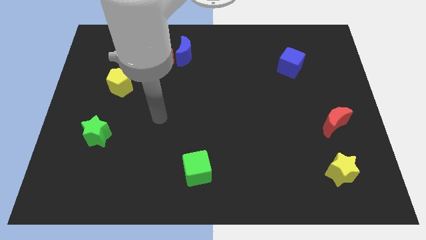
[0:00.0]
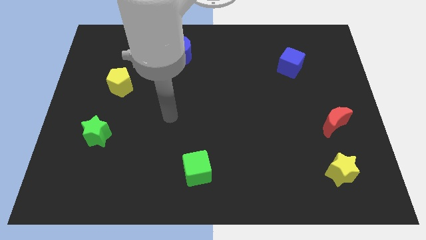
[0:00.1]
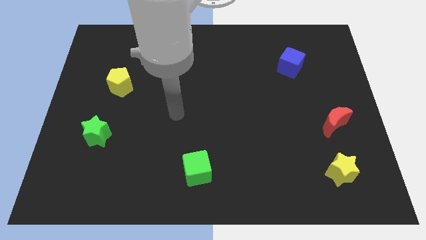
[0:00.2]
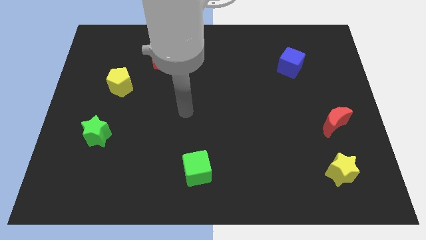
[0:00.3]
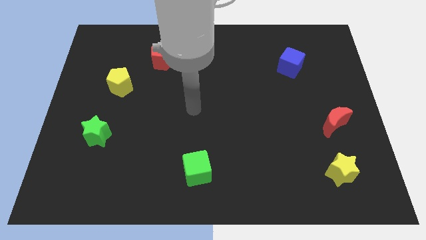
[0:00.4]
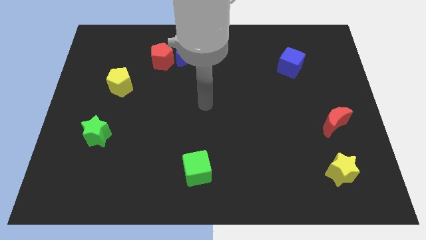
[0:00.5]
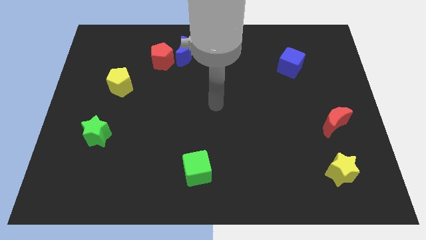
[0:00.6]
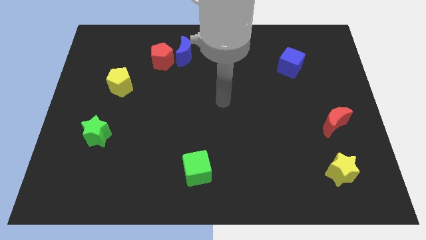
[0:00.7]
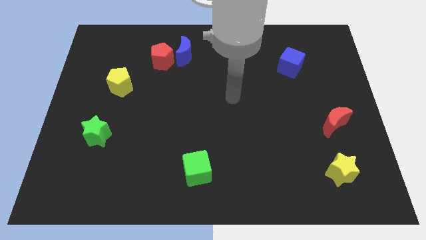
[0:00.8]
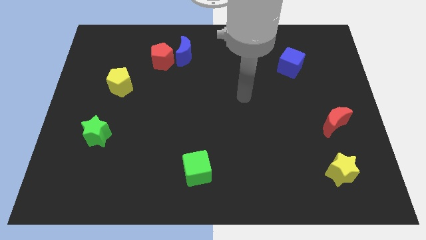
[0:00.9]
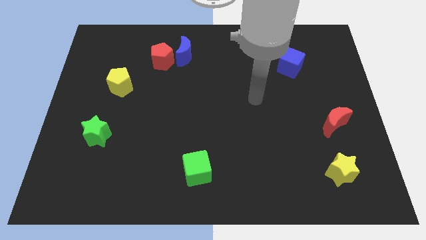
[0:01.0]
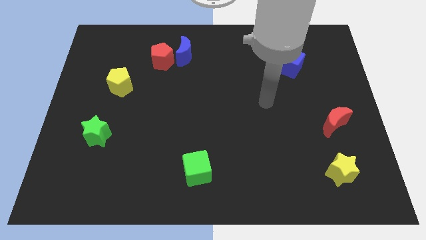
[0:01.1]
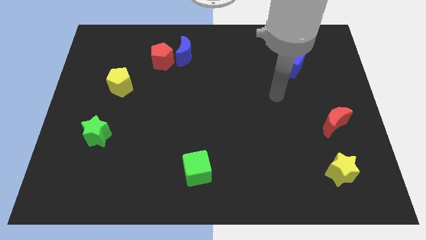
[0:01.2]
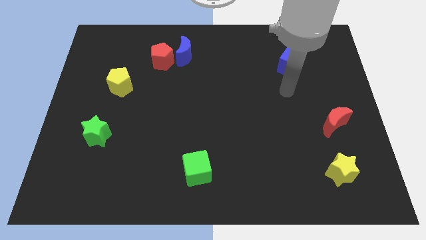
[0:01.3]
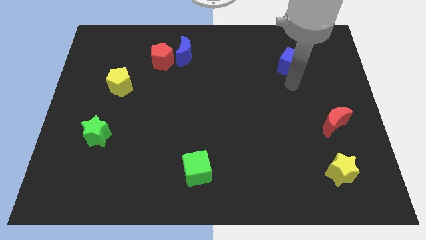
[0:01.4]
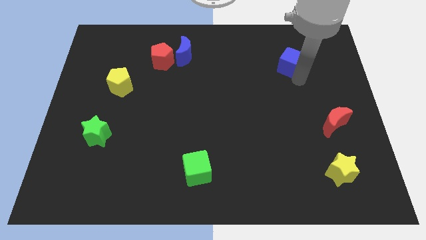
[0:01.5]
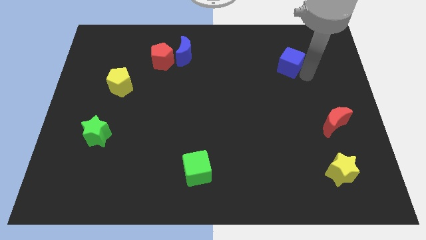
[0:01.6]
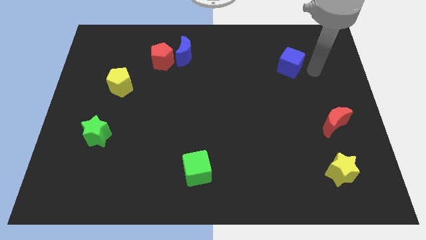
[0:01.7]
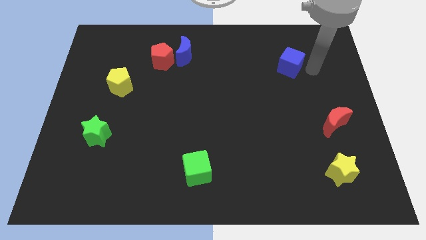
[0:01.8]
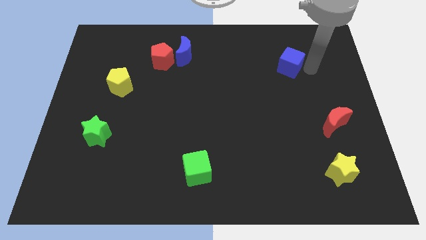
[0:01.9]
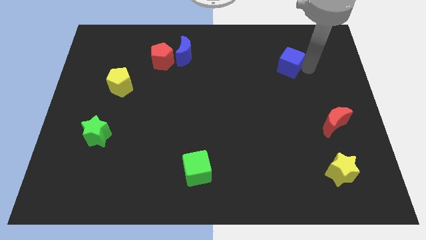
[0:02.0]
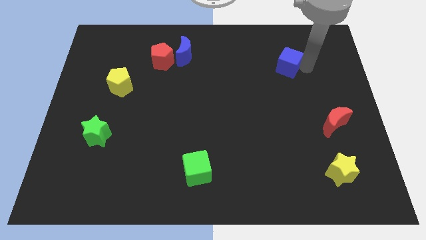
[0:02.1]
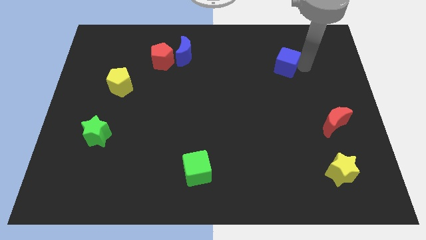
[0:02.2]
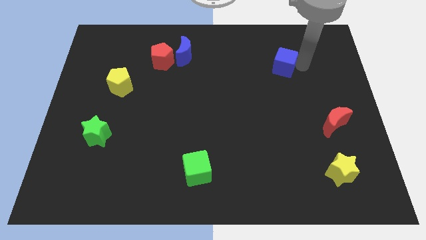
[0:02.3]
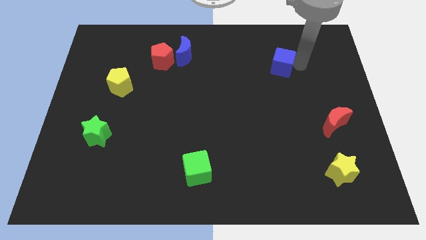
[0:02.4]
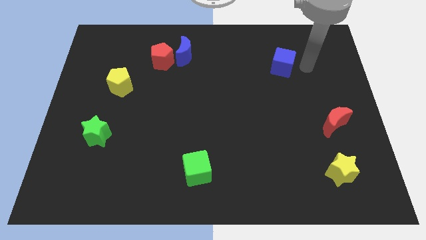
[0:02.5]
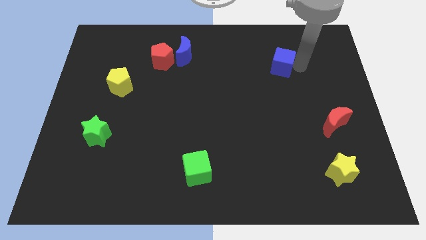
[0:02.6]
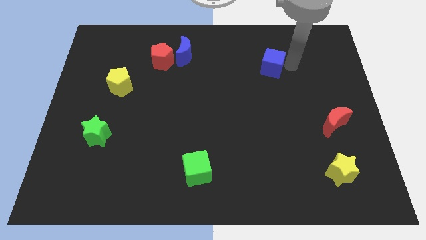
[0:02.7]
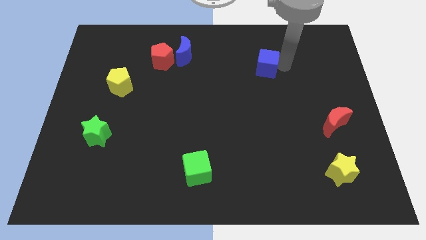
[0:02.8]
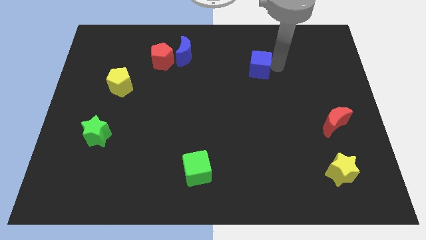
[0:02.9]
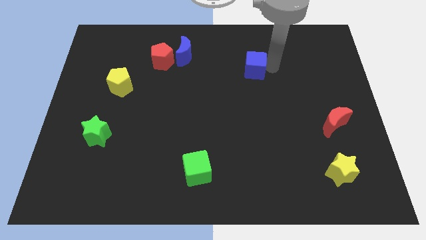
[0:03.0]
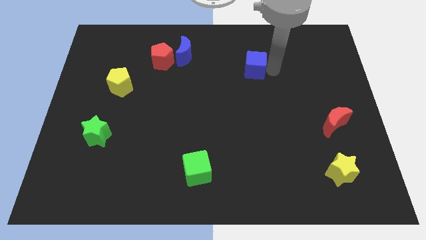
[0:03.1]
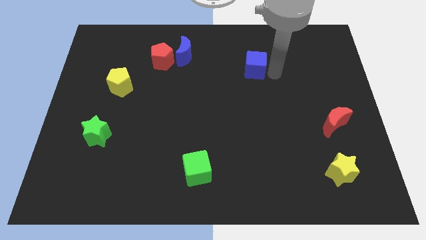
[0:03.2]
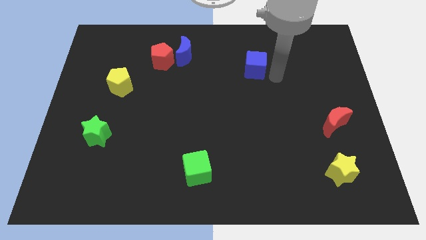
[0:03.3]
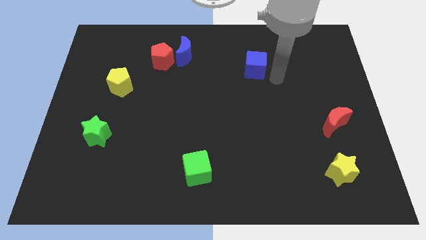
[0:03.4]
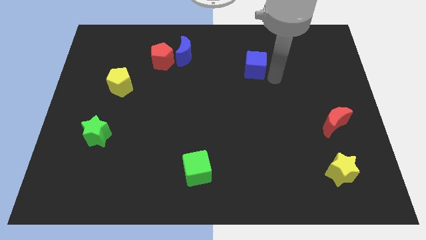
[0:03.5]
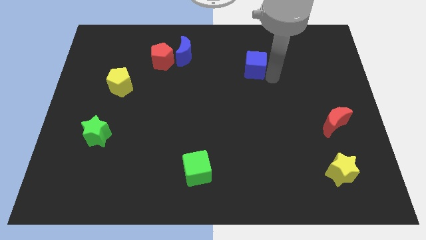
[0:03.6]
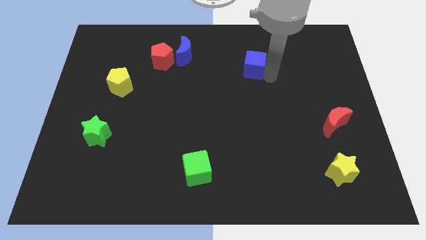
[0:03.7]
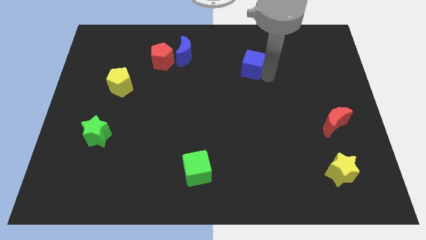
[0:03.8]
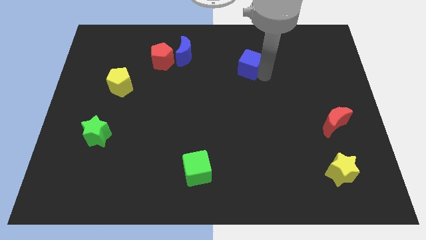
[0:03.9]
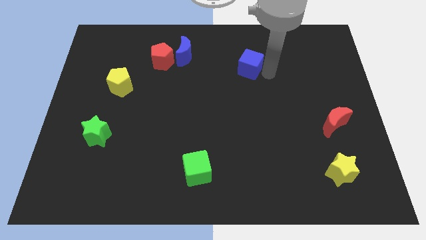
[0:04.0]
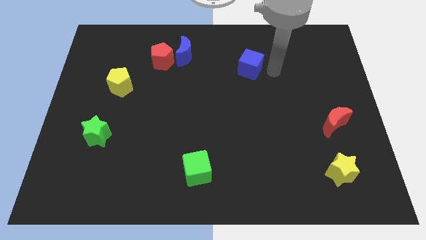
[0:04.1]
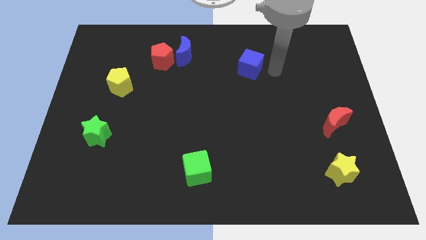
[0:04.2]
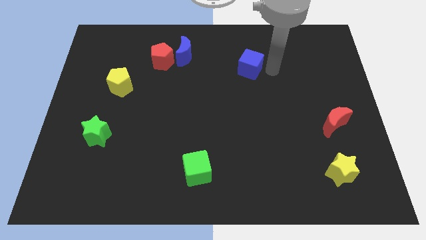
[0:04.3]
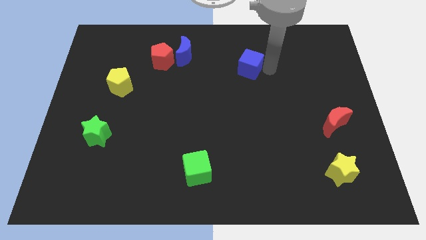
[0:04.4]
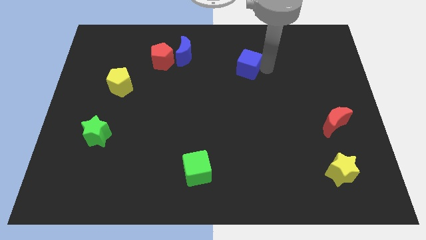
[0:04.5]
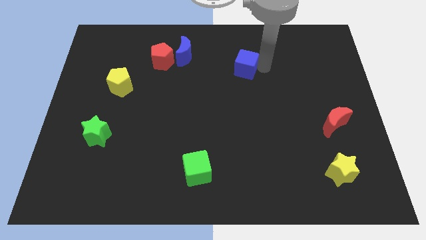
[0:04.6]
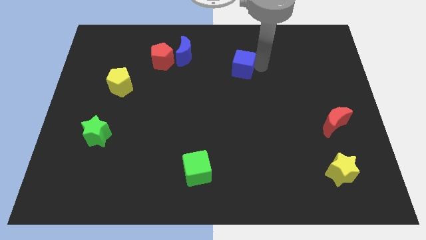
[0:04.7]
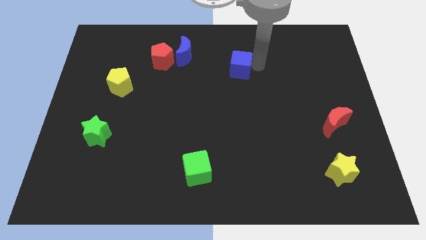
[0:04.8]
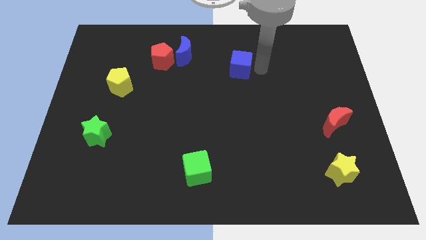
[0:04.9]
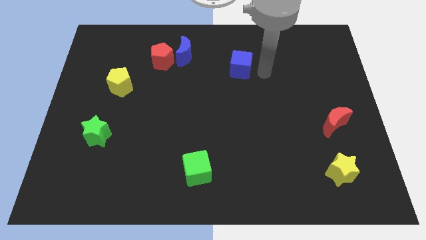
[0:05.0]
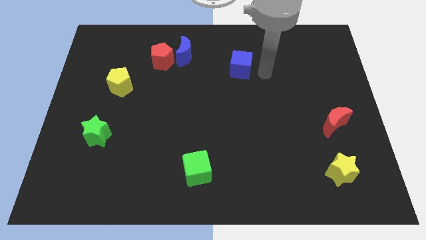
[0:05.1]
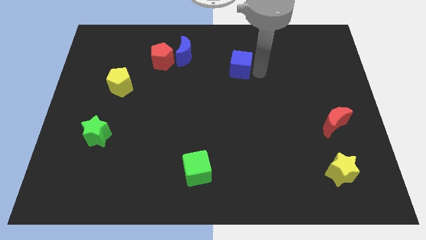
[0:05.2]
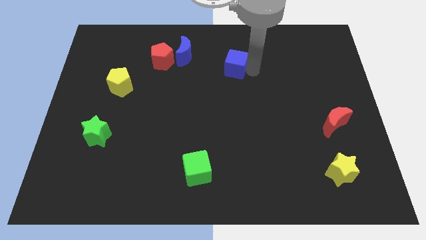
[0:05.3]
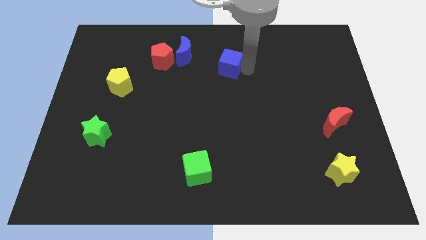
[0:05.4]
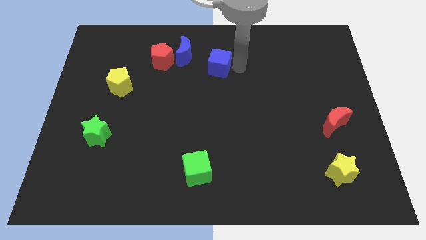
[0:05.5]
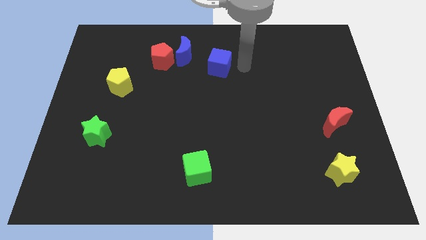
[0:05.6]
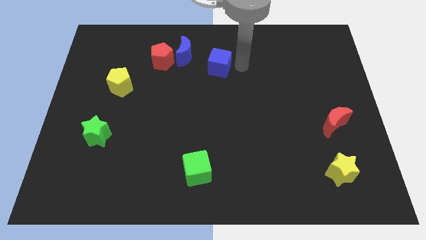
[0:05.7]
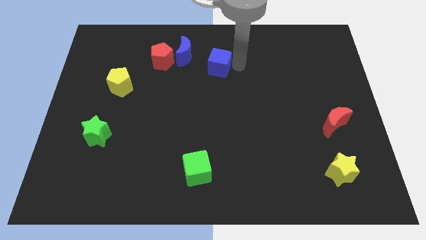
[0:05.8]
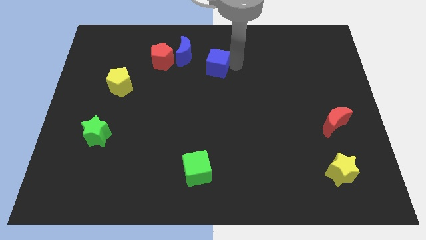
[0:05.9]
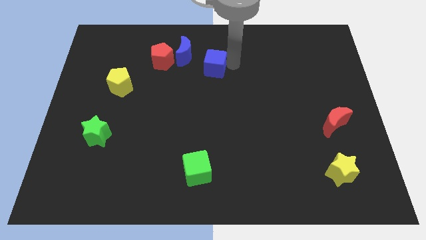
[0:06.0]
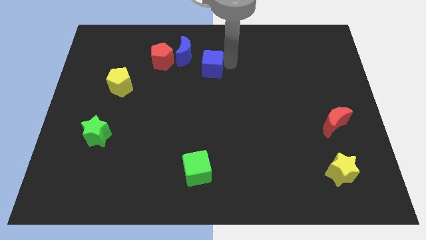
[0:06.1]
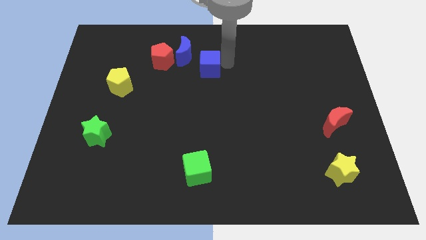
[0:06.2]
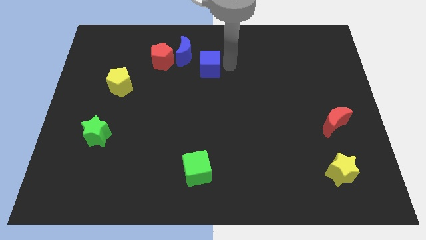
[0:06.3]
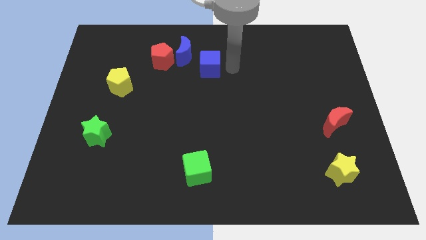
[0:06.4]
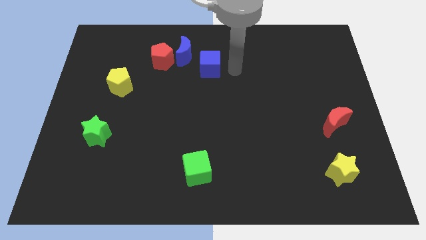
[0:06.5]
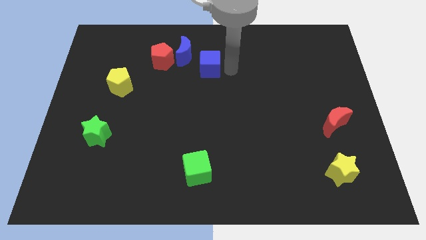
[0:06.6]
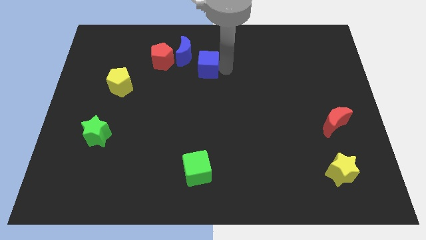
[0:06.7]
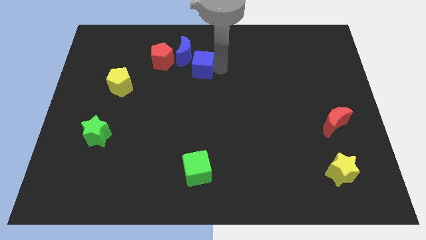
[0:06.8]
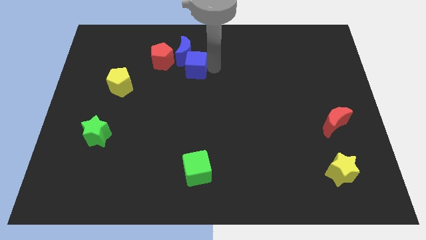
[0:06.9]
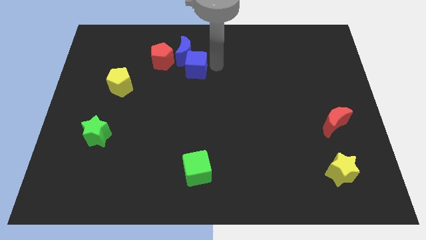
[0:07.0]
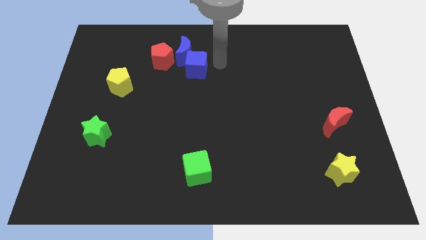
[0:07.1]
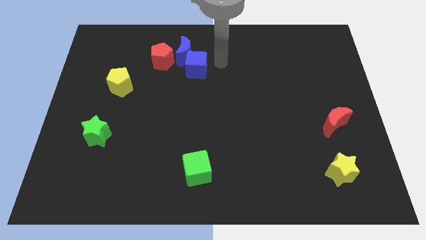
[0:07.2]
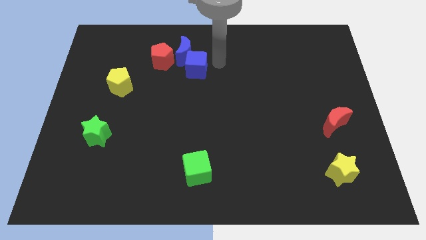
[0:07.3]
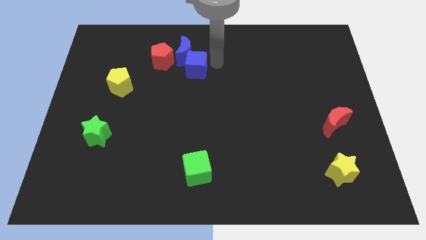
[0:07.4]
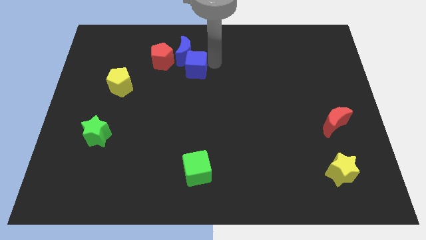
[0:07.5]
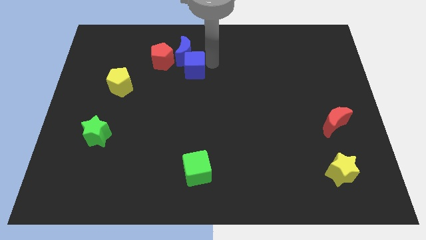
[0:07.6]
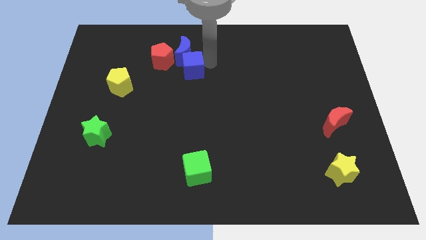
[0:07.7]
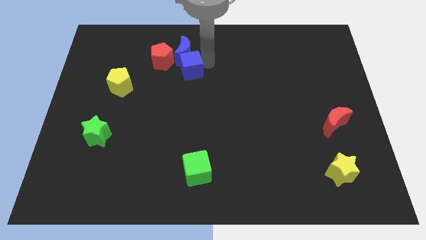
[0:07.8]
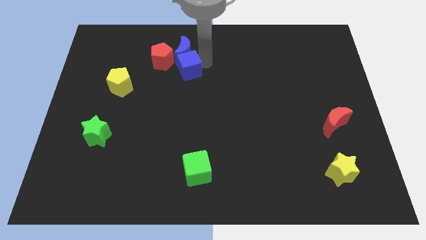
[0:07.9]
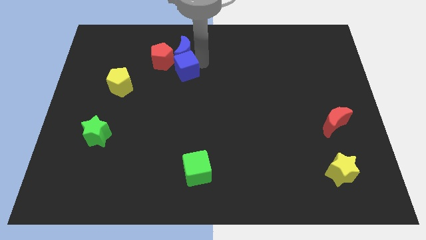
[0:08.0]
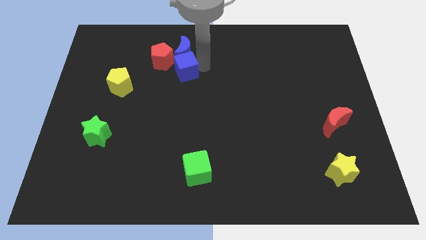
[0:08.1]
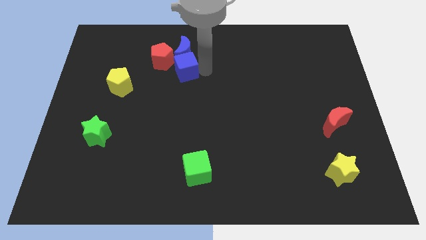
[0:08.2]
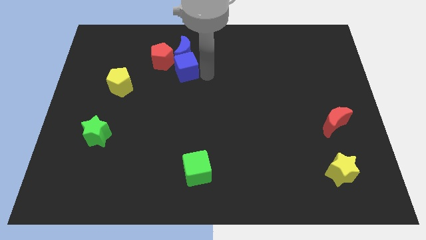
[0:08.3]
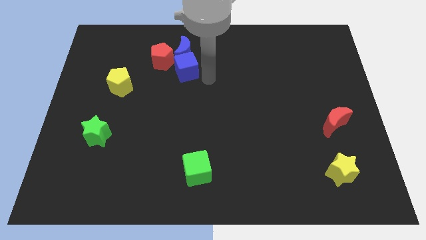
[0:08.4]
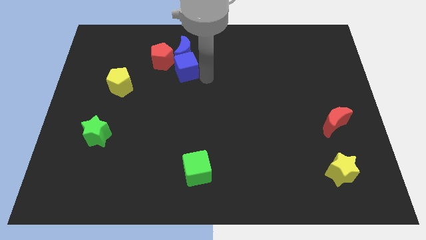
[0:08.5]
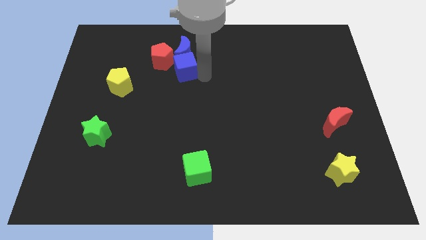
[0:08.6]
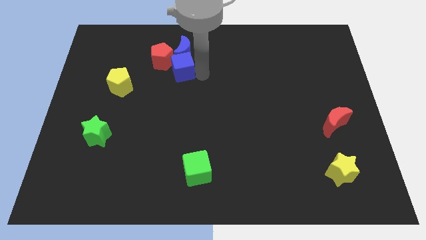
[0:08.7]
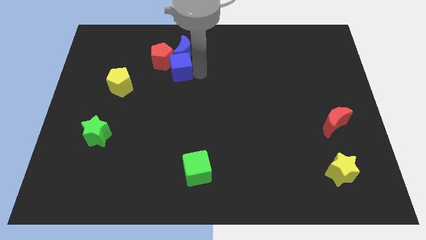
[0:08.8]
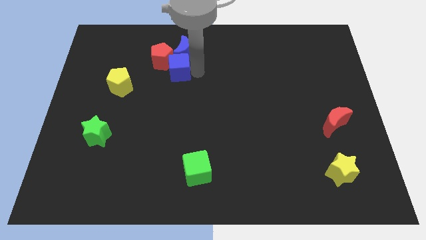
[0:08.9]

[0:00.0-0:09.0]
slide the blue cube next to the red pentagon
